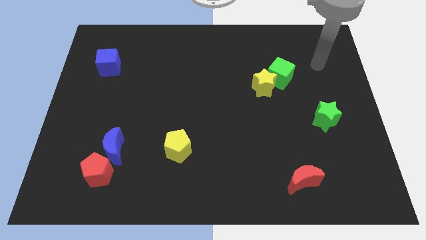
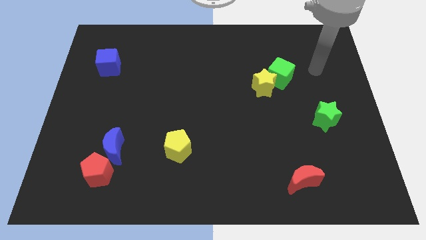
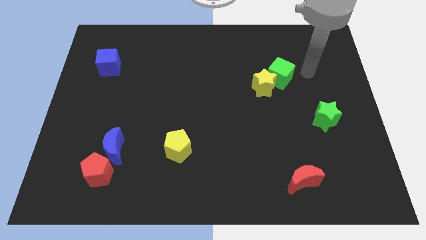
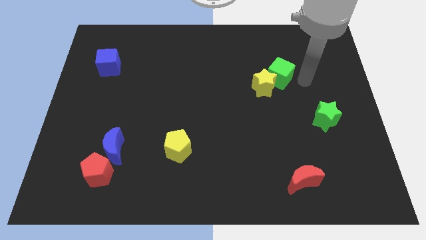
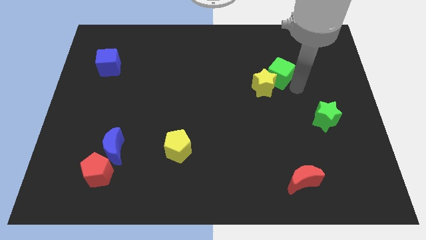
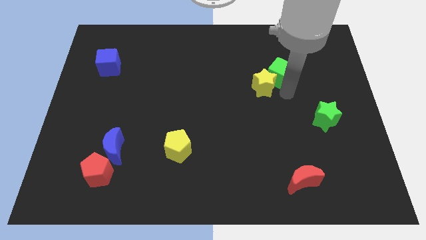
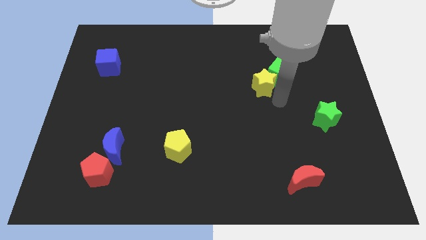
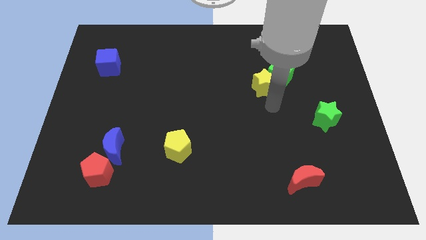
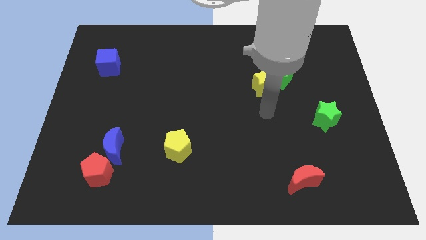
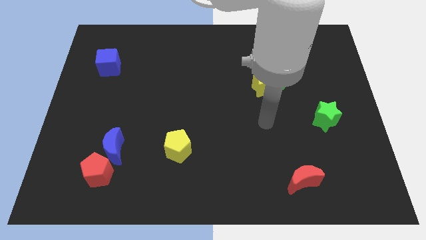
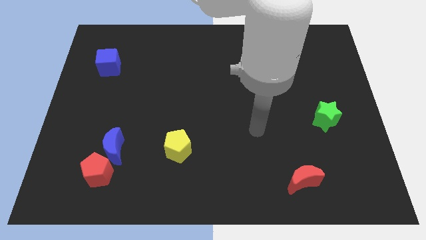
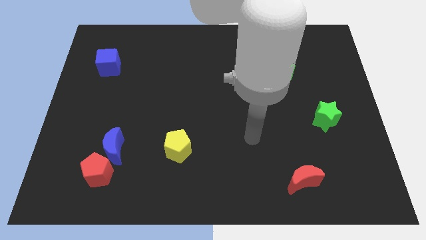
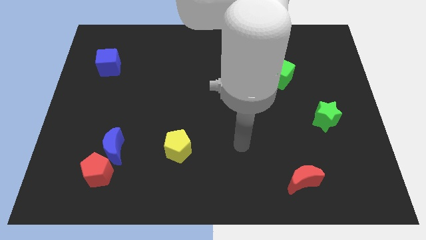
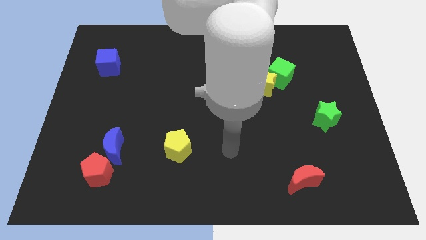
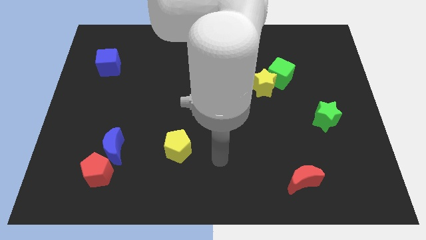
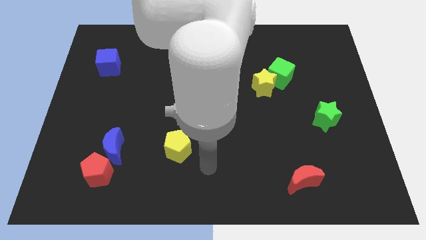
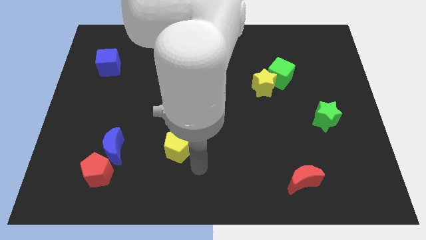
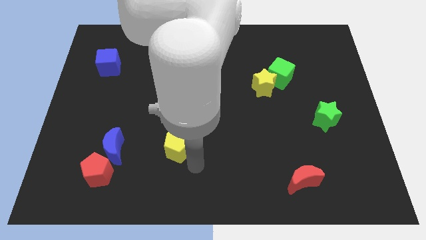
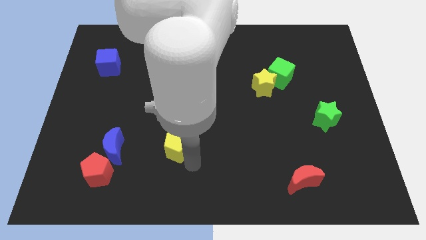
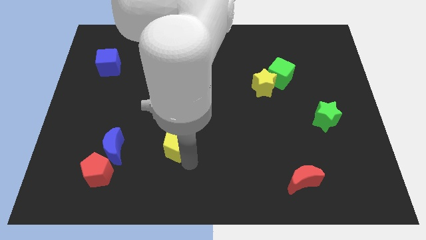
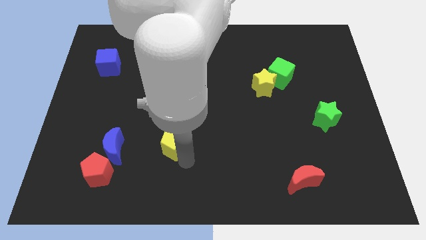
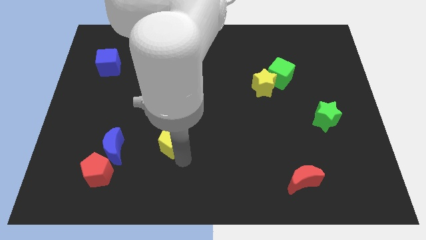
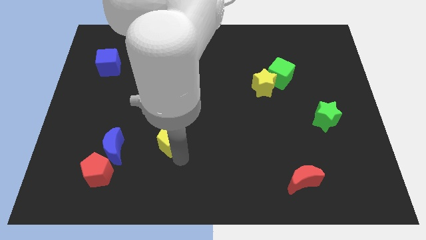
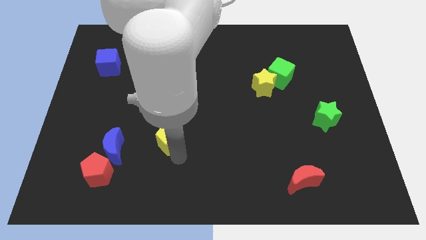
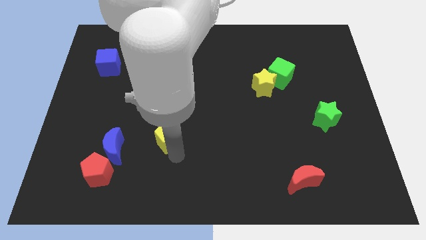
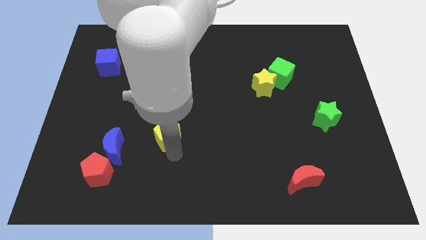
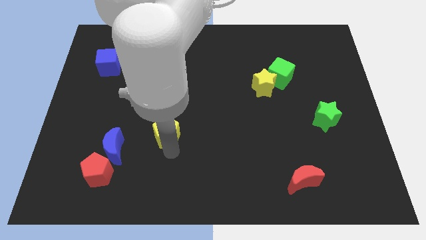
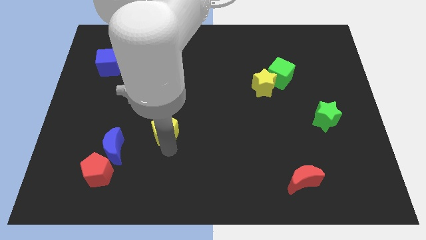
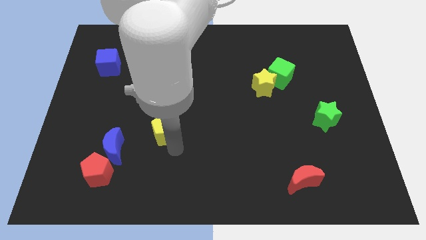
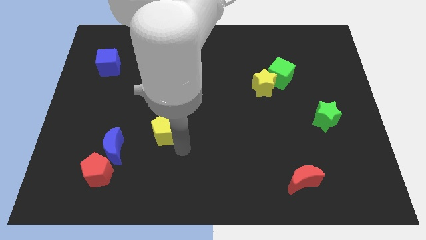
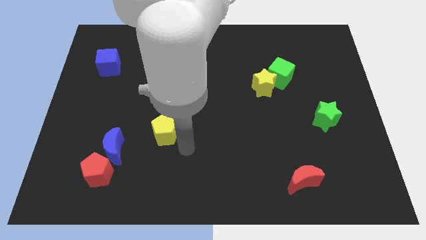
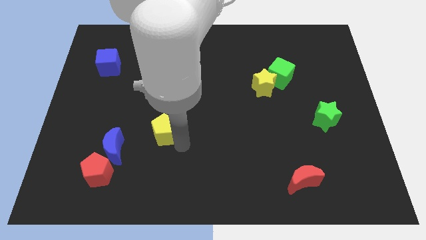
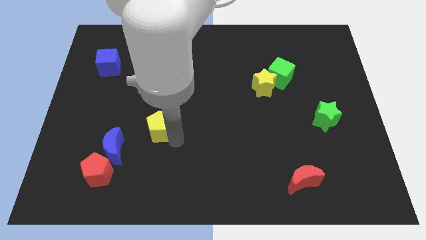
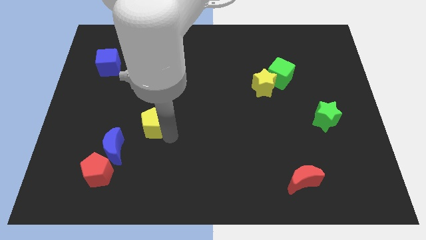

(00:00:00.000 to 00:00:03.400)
move the yellow pentagon a little bit diagonally upwards and to the left

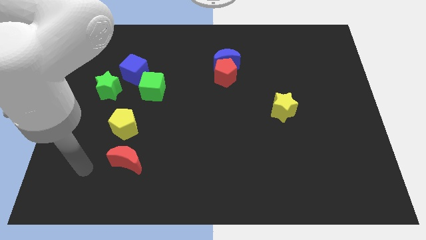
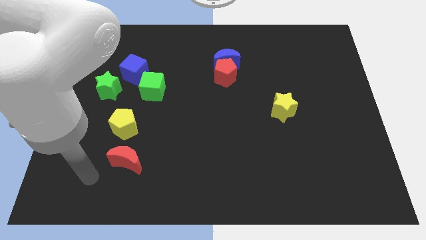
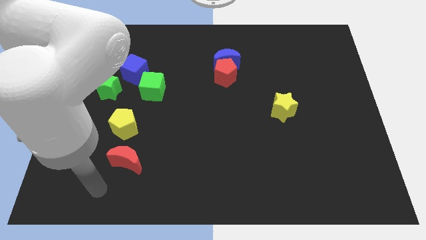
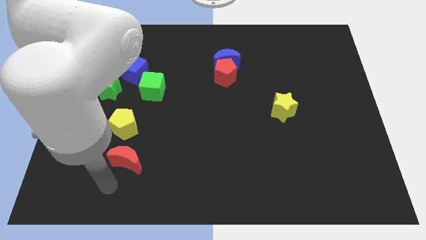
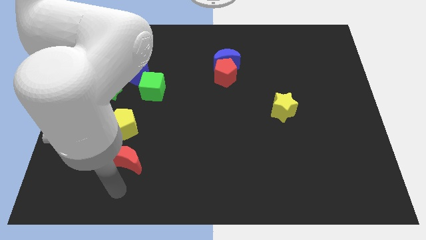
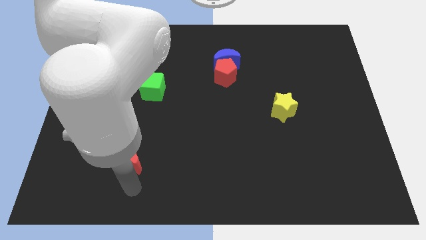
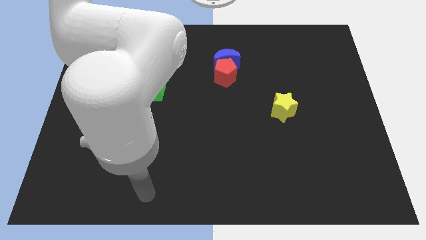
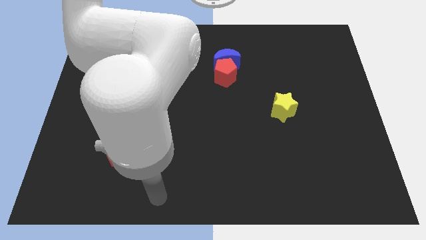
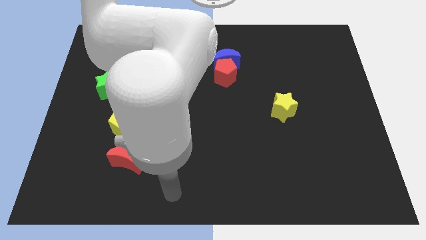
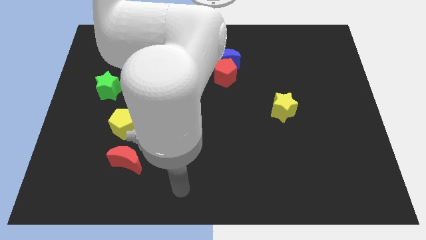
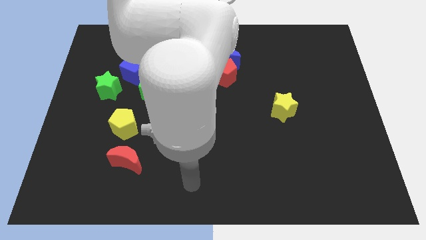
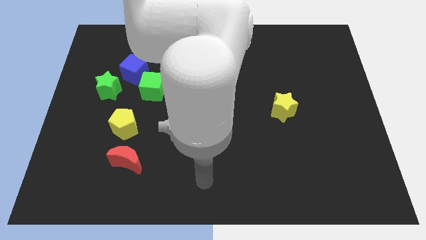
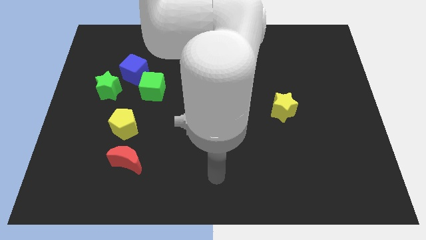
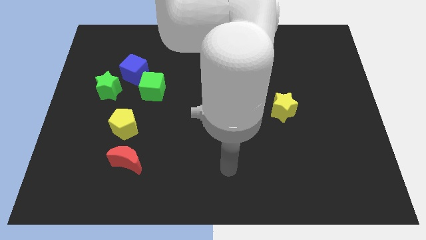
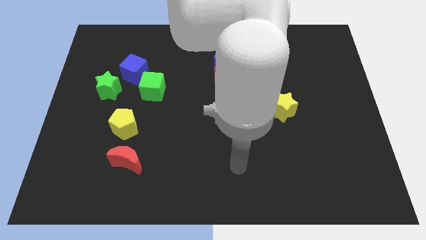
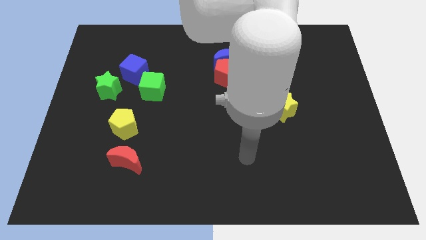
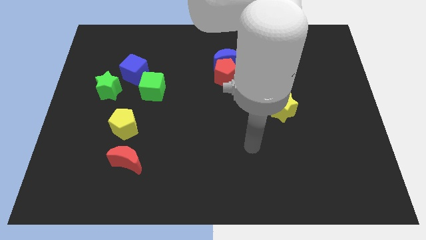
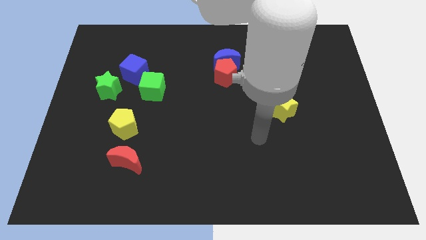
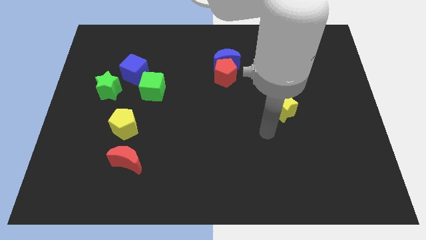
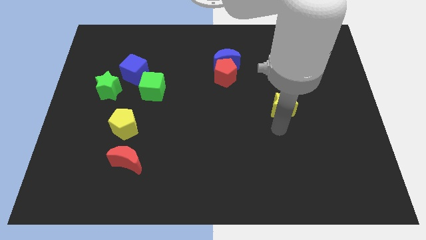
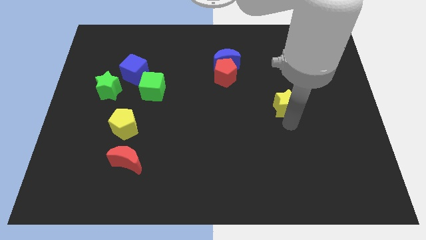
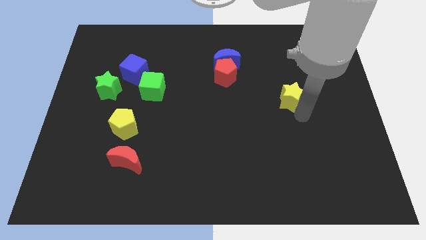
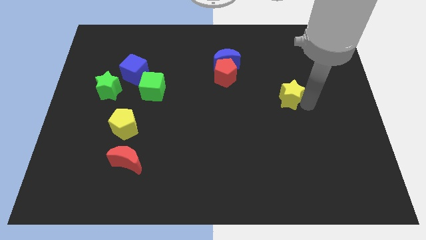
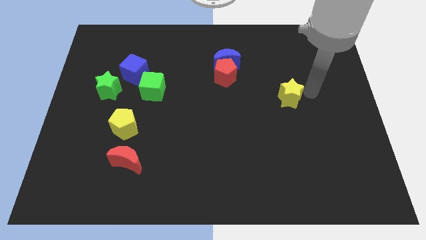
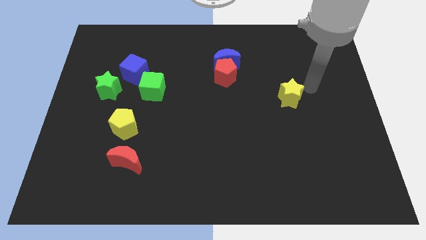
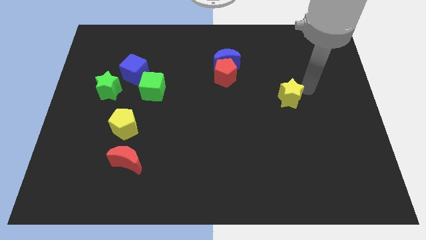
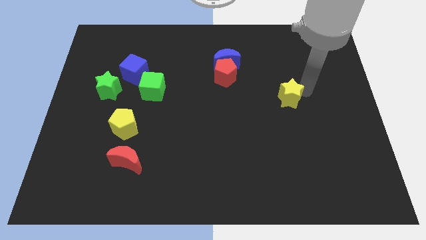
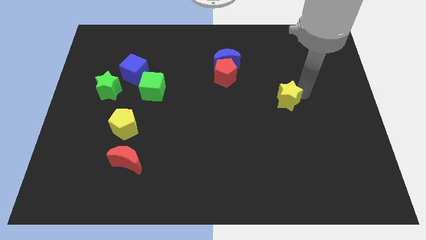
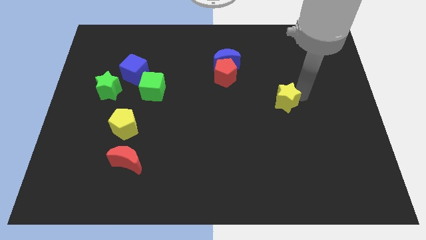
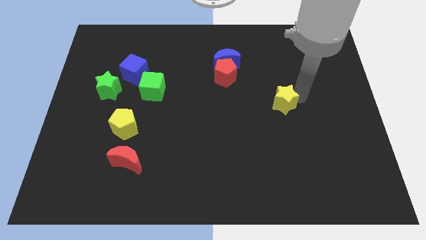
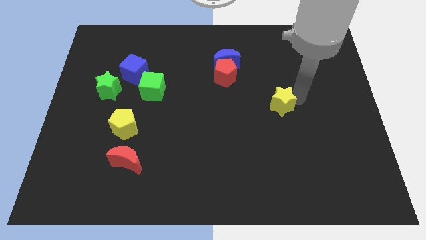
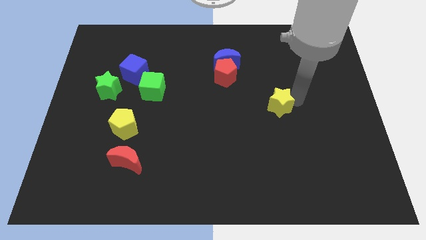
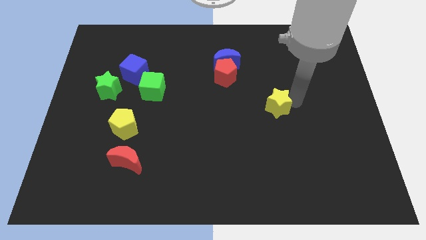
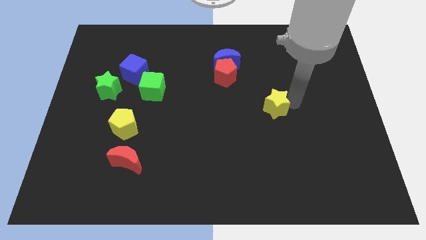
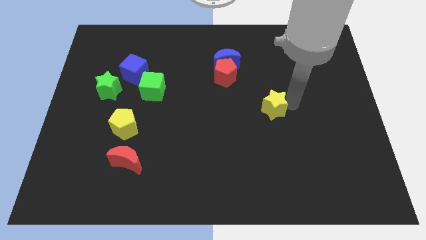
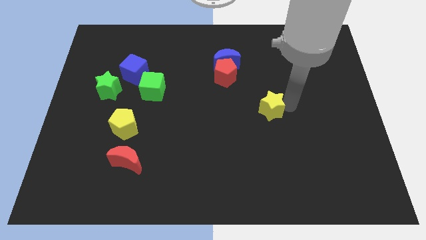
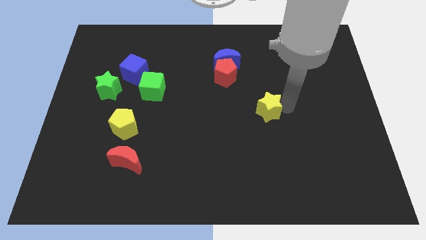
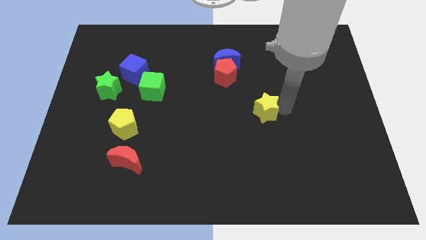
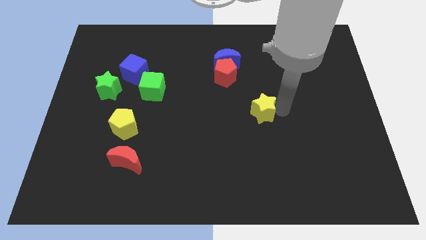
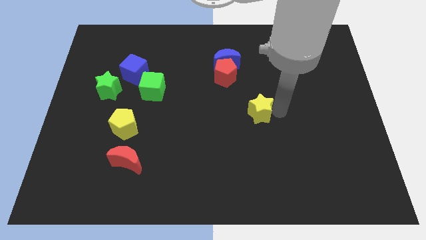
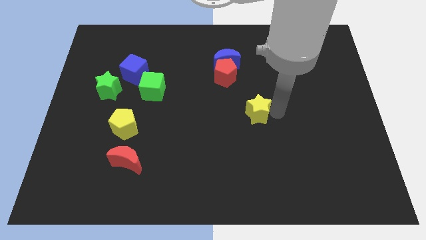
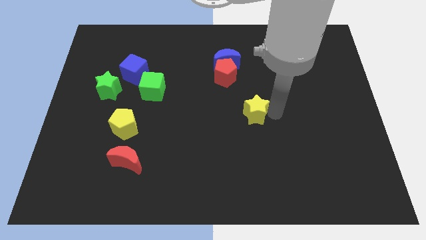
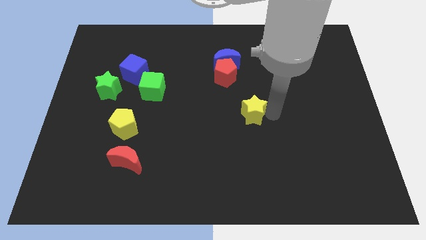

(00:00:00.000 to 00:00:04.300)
slightly move the yellow star to the left

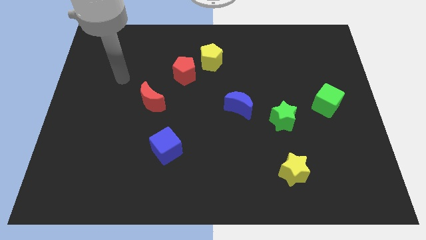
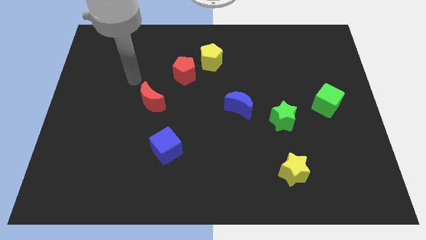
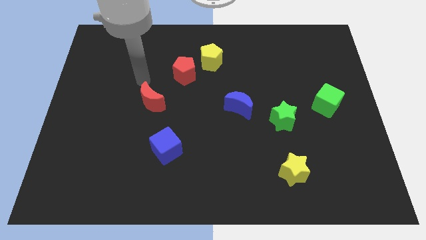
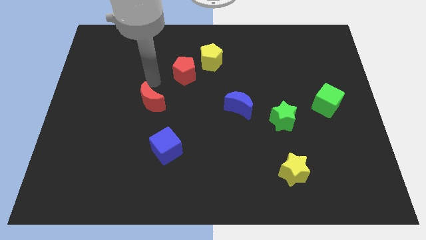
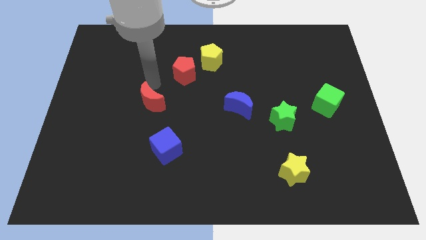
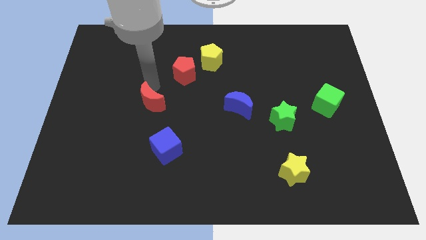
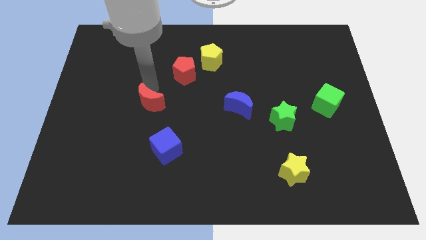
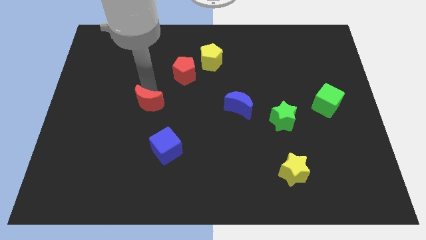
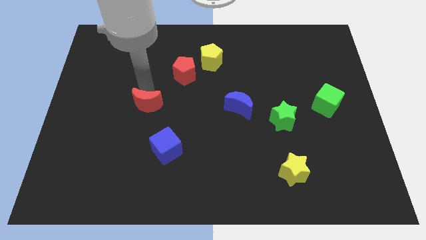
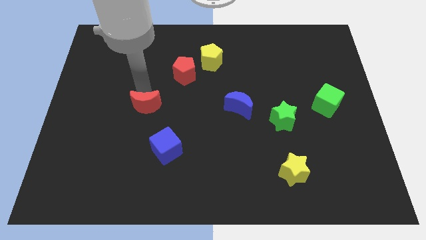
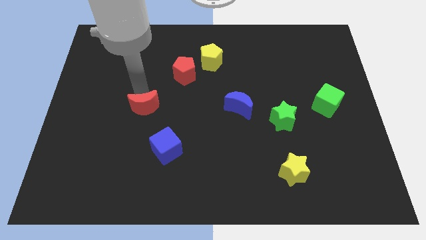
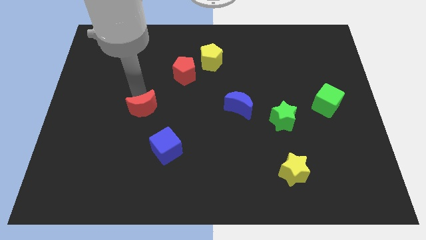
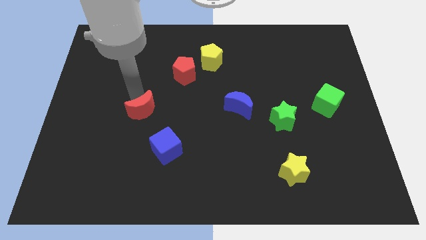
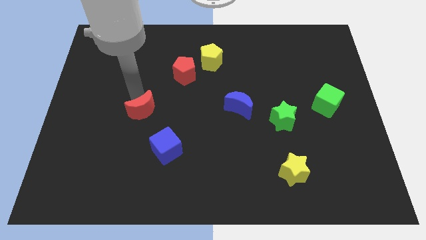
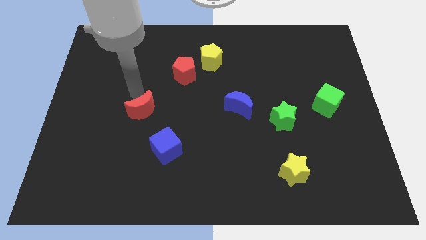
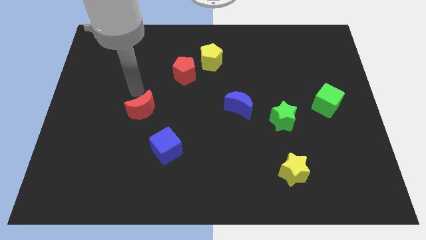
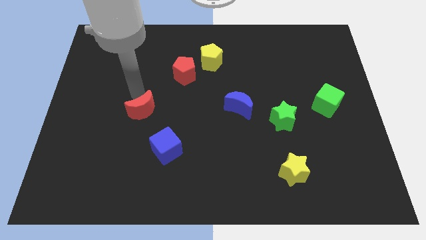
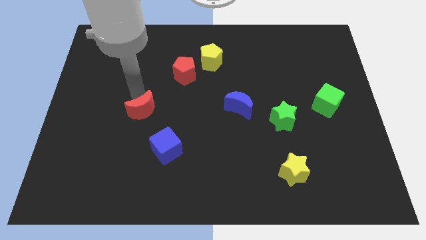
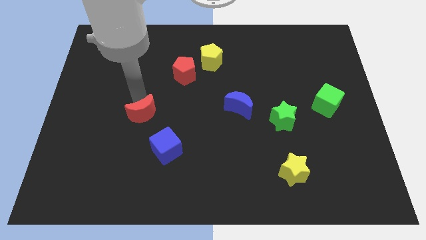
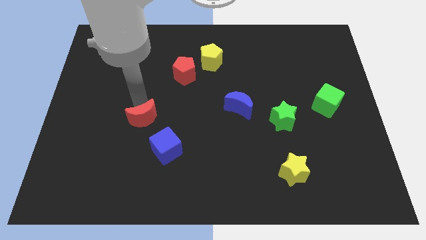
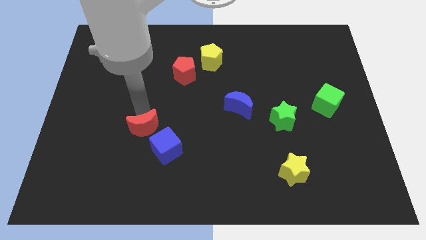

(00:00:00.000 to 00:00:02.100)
slide the red moon a bit down
